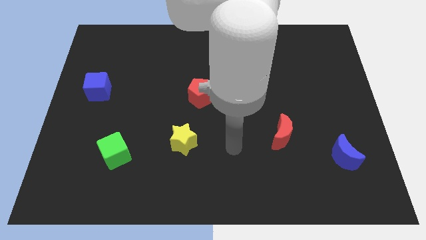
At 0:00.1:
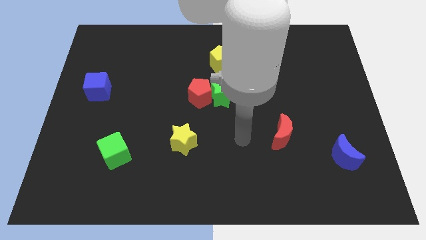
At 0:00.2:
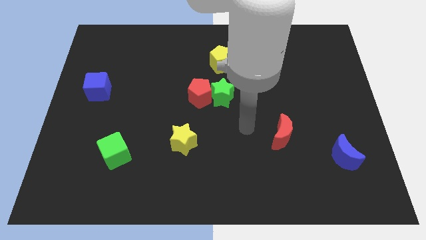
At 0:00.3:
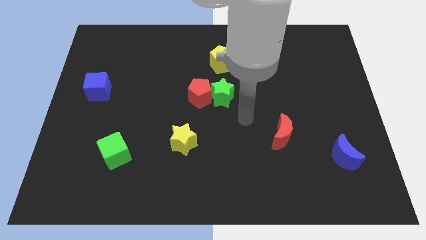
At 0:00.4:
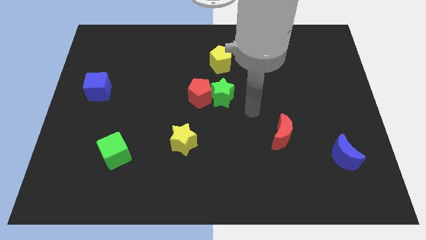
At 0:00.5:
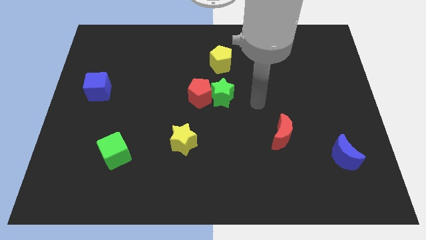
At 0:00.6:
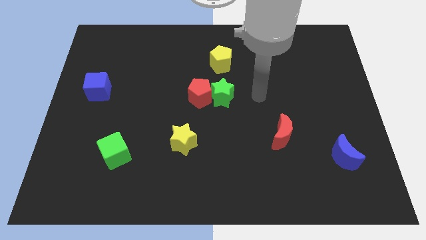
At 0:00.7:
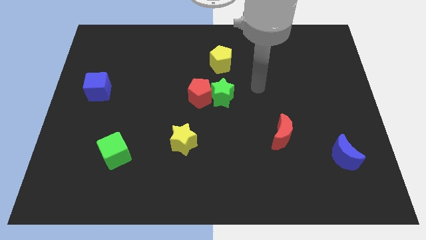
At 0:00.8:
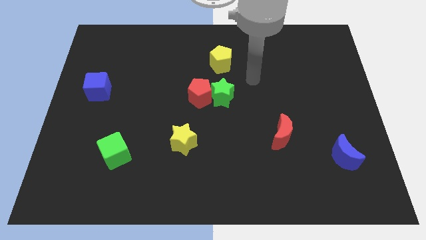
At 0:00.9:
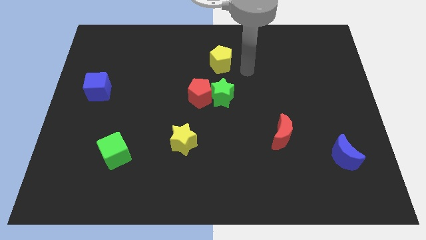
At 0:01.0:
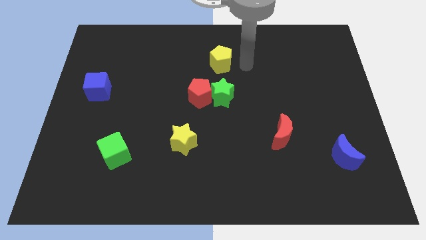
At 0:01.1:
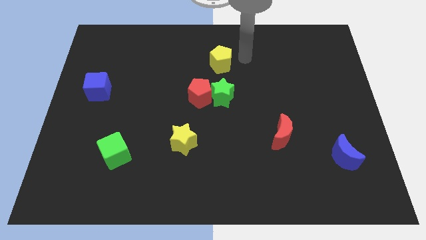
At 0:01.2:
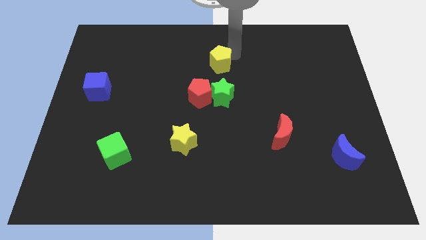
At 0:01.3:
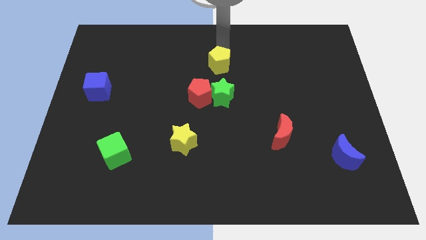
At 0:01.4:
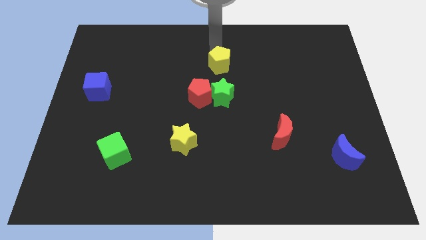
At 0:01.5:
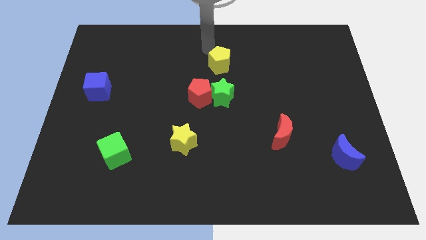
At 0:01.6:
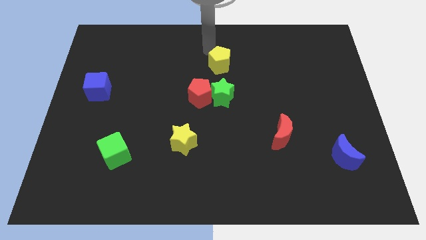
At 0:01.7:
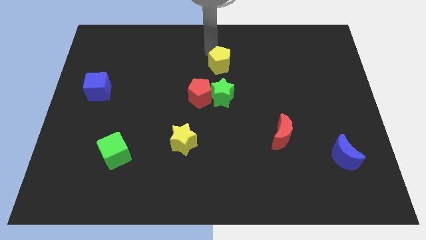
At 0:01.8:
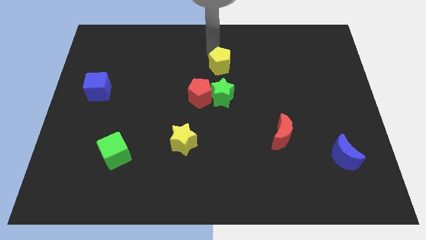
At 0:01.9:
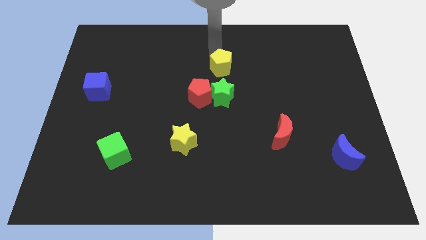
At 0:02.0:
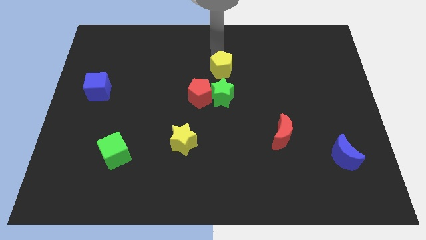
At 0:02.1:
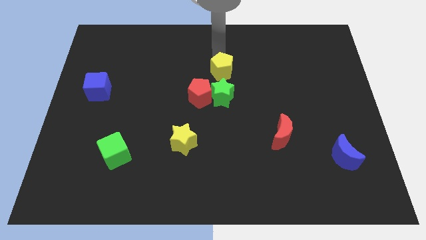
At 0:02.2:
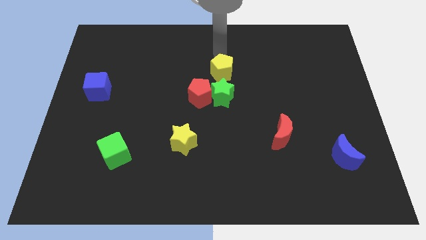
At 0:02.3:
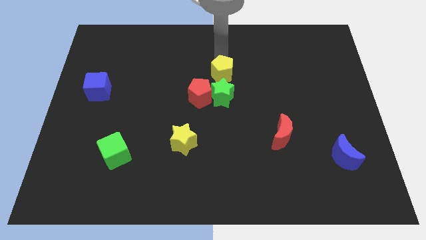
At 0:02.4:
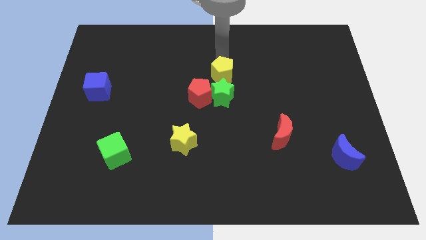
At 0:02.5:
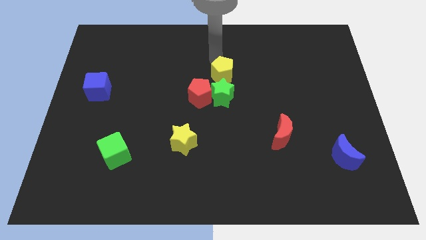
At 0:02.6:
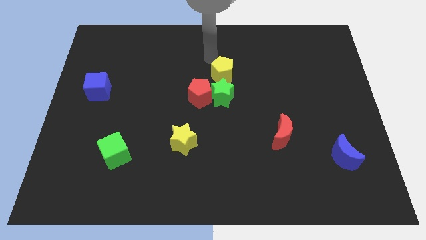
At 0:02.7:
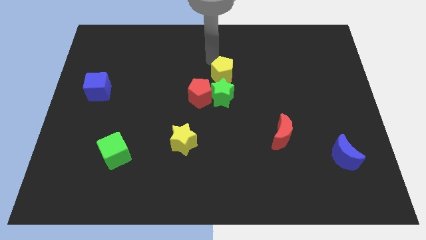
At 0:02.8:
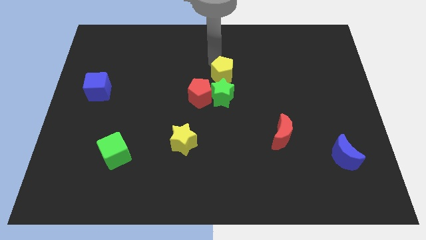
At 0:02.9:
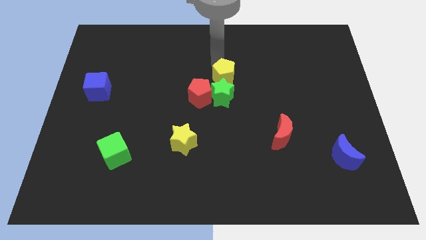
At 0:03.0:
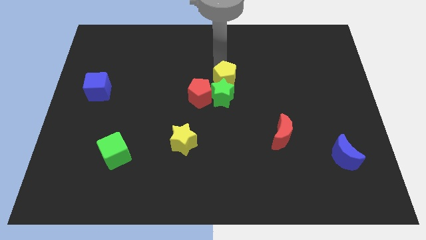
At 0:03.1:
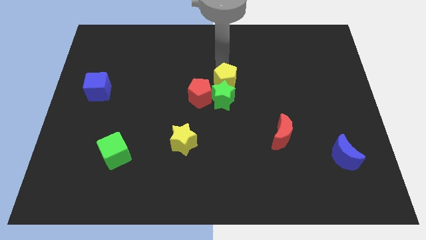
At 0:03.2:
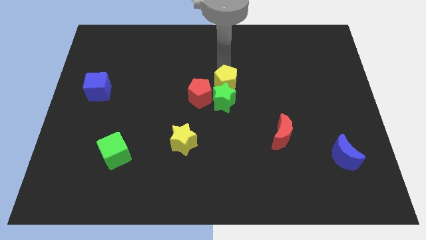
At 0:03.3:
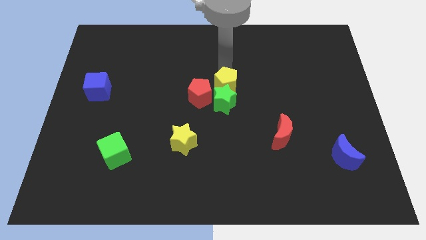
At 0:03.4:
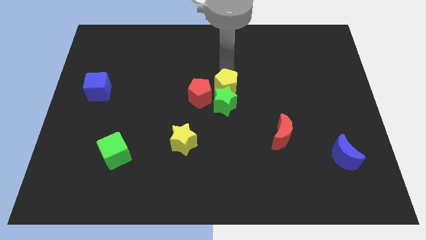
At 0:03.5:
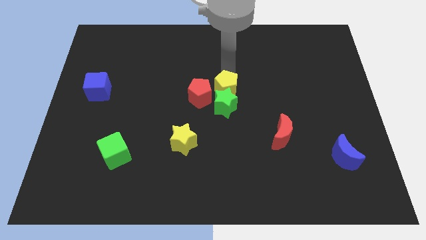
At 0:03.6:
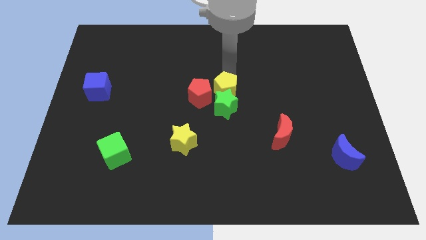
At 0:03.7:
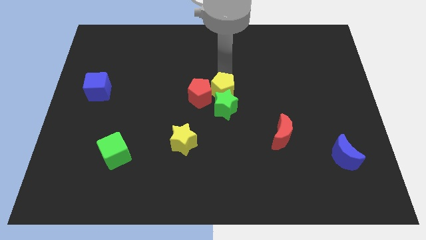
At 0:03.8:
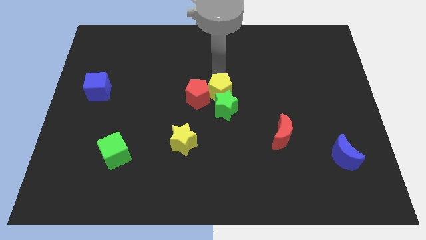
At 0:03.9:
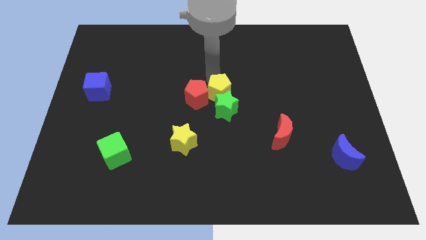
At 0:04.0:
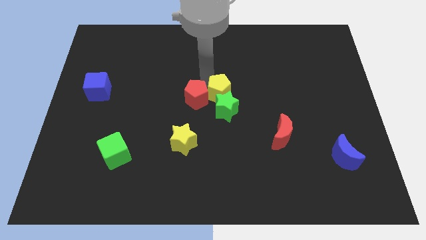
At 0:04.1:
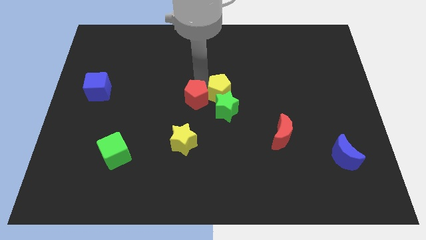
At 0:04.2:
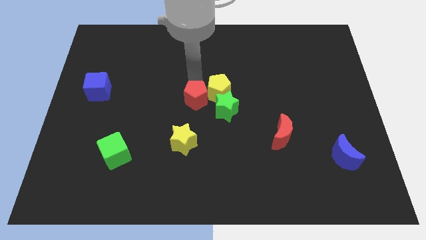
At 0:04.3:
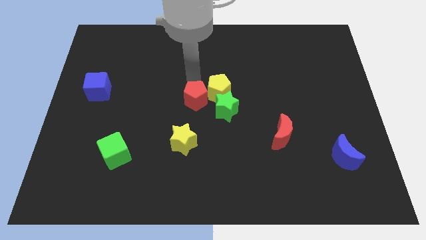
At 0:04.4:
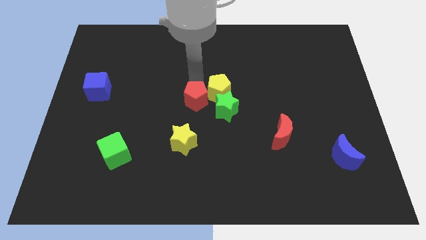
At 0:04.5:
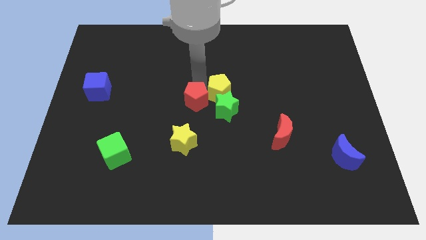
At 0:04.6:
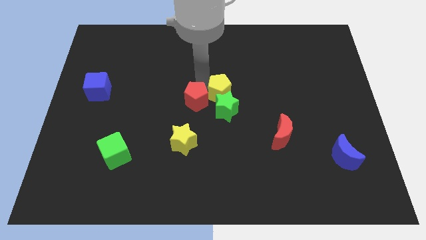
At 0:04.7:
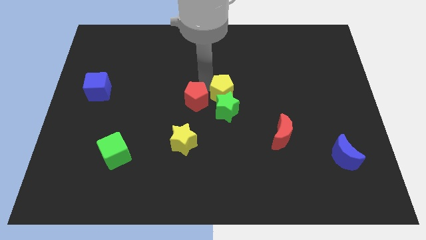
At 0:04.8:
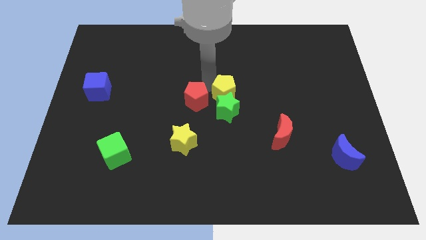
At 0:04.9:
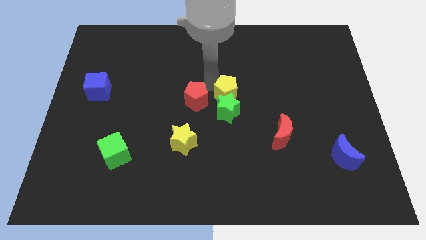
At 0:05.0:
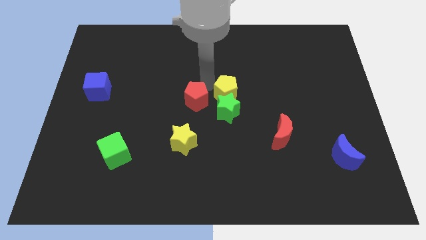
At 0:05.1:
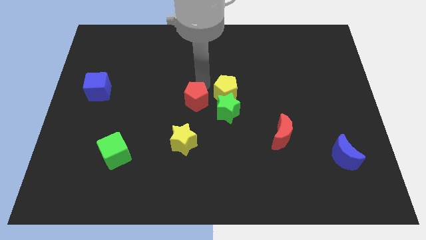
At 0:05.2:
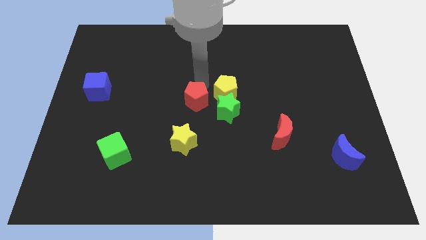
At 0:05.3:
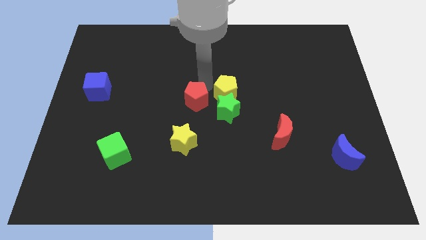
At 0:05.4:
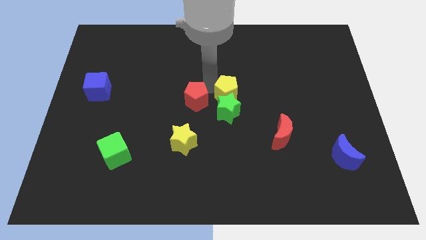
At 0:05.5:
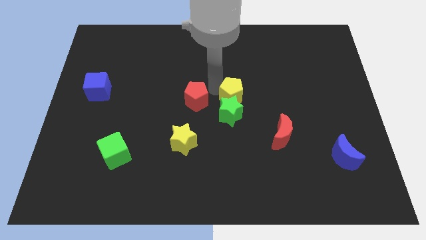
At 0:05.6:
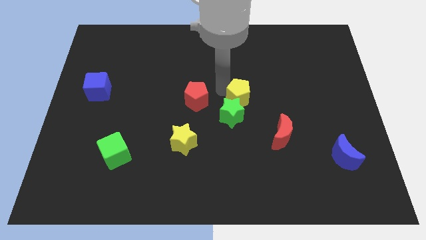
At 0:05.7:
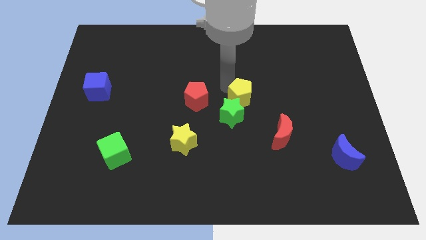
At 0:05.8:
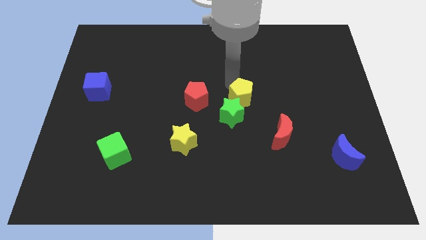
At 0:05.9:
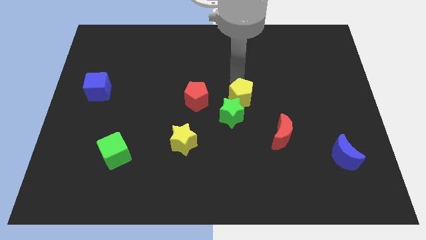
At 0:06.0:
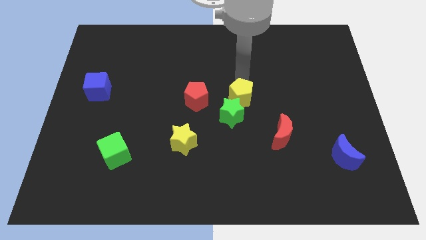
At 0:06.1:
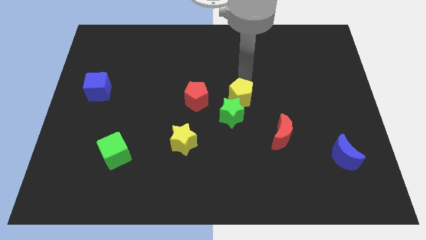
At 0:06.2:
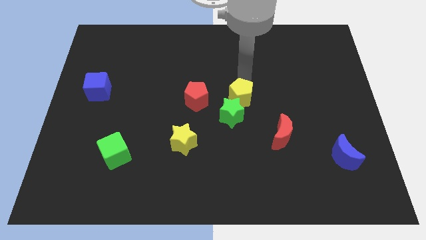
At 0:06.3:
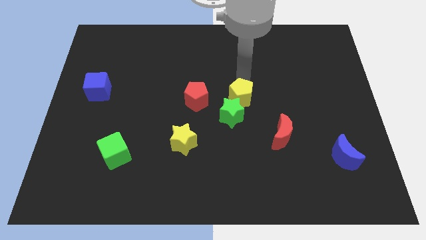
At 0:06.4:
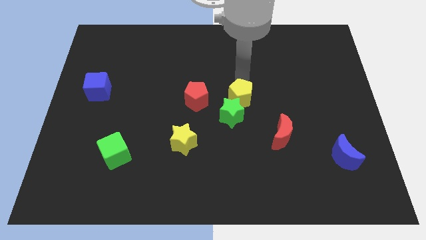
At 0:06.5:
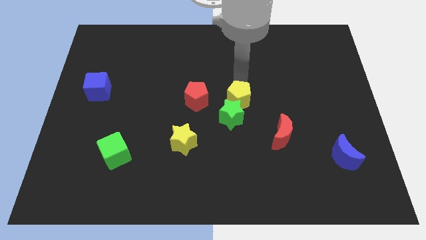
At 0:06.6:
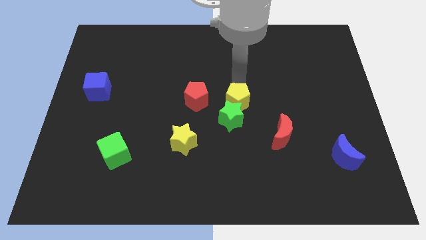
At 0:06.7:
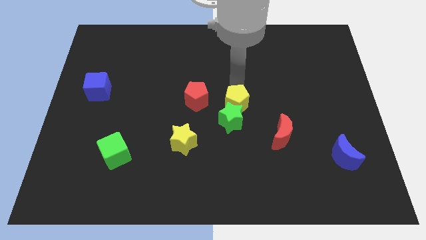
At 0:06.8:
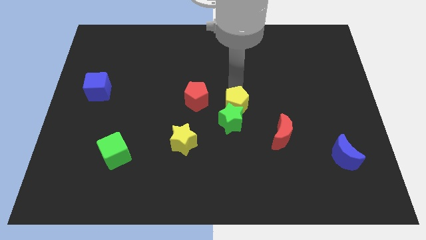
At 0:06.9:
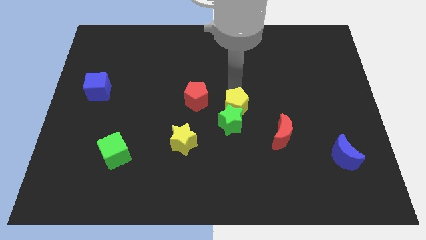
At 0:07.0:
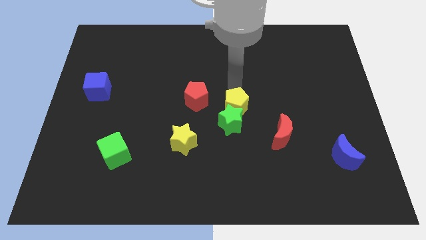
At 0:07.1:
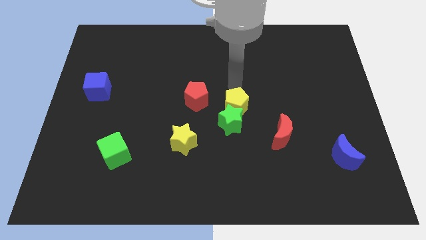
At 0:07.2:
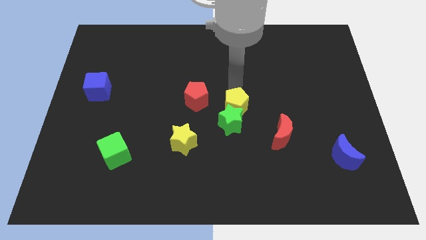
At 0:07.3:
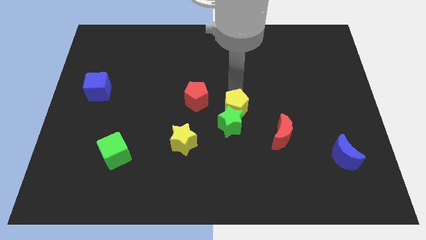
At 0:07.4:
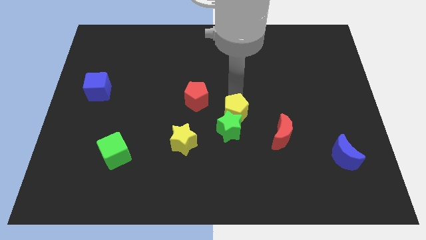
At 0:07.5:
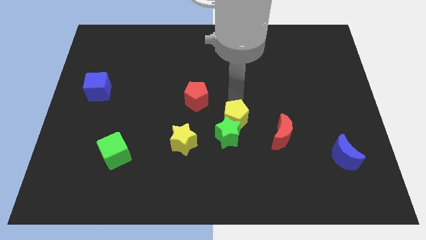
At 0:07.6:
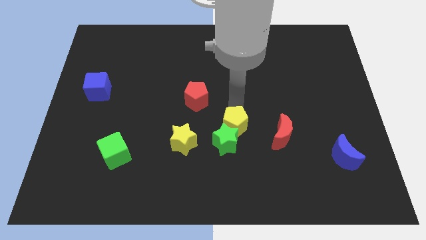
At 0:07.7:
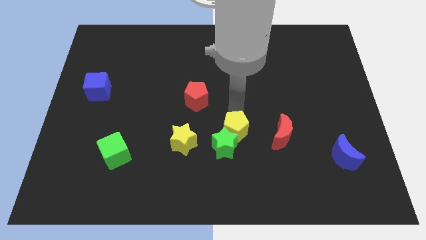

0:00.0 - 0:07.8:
slide the yellow pentagon down

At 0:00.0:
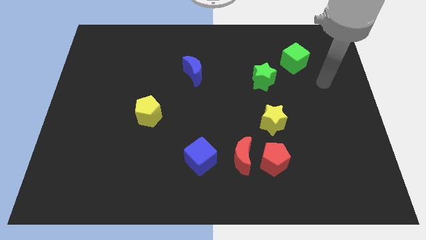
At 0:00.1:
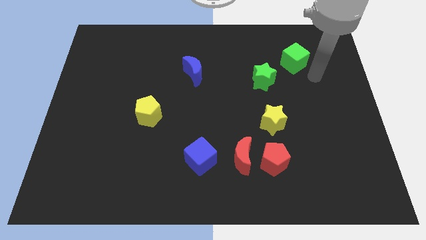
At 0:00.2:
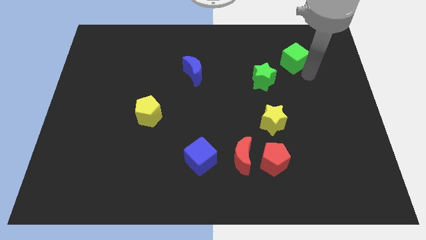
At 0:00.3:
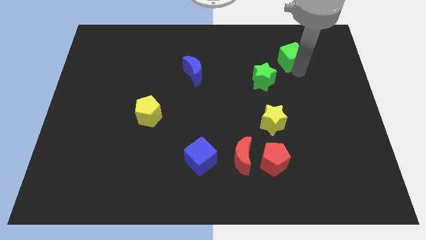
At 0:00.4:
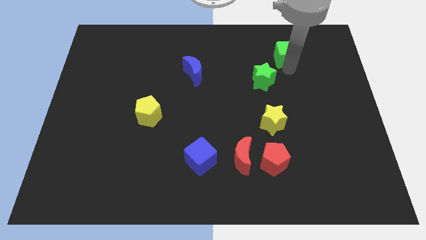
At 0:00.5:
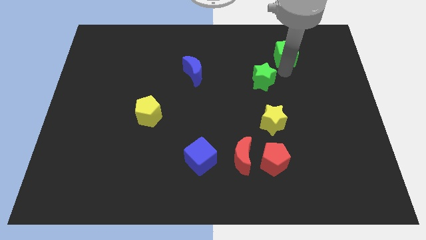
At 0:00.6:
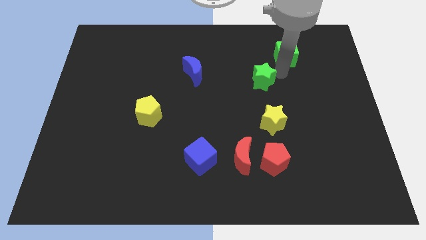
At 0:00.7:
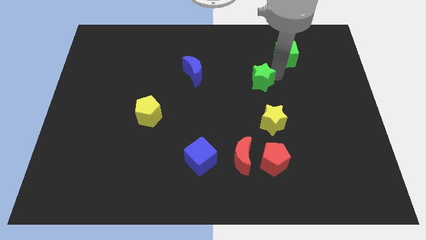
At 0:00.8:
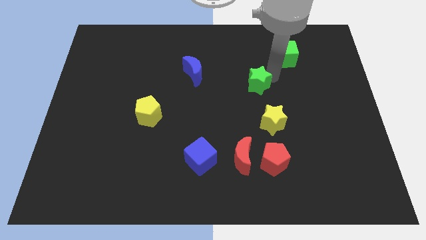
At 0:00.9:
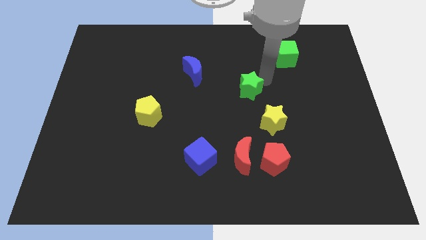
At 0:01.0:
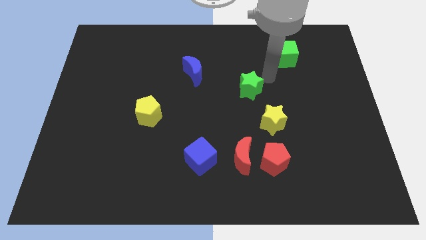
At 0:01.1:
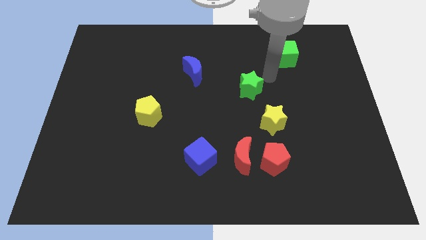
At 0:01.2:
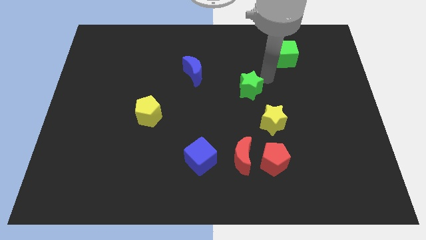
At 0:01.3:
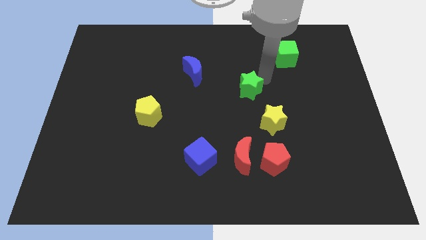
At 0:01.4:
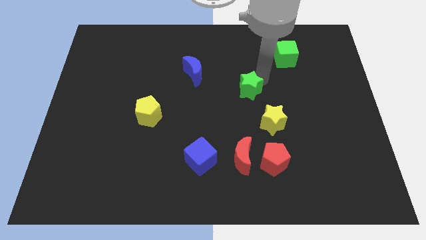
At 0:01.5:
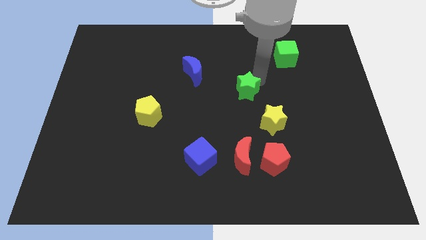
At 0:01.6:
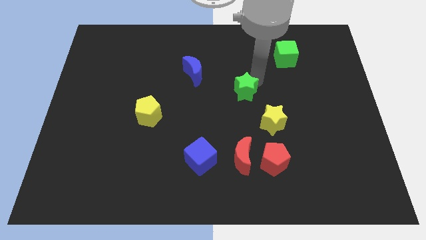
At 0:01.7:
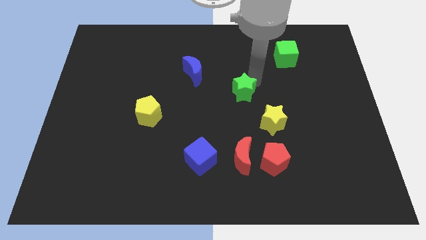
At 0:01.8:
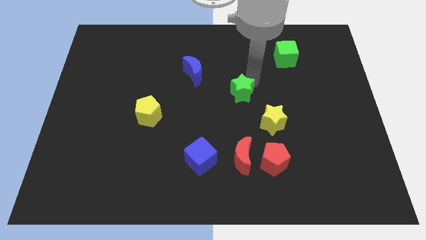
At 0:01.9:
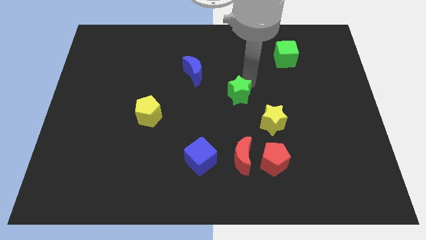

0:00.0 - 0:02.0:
slightly push the green star down and left
